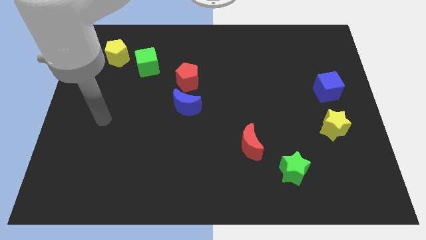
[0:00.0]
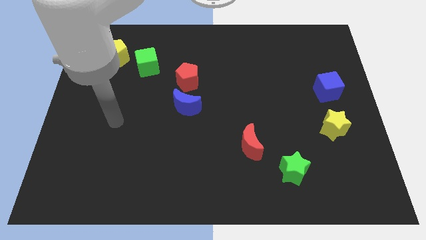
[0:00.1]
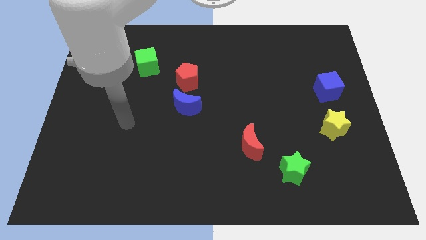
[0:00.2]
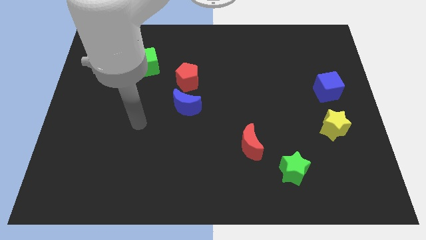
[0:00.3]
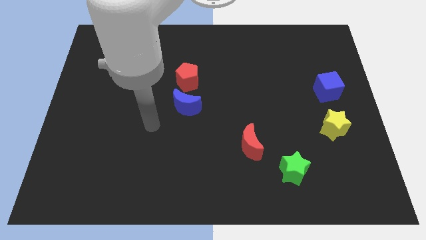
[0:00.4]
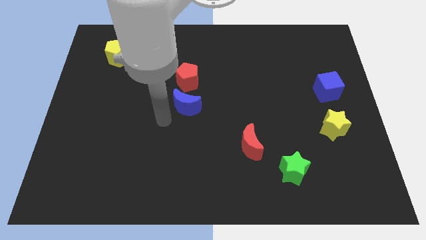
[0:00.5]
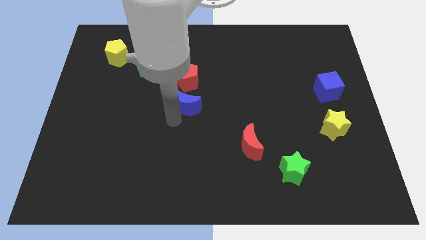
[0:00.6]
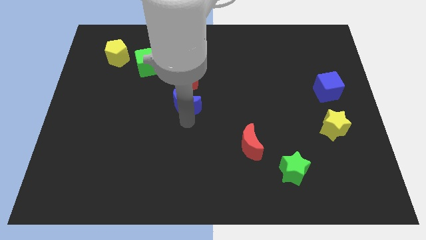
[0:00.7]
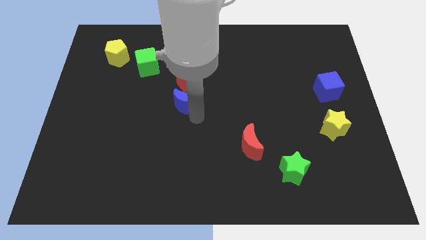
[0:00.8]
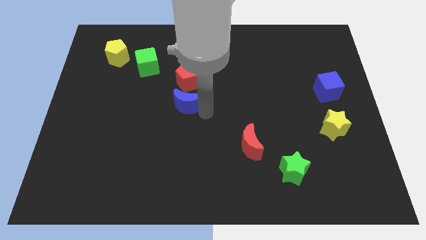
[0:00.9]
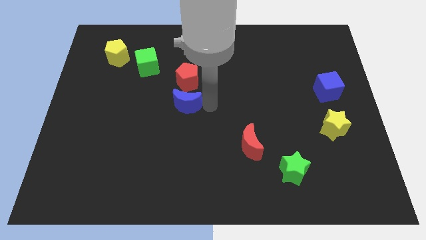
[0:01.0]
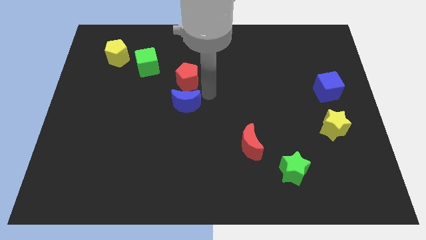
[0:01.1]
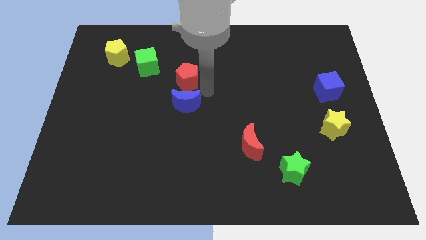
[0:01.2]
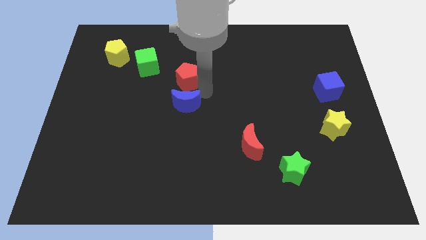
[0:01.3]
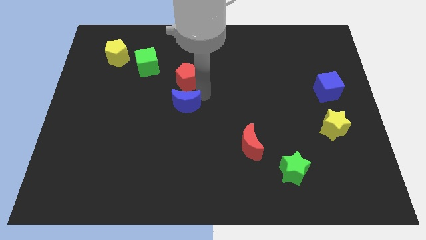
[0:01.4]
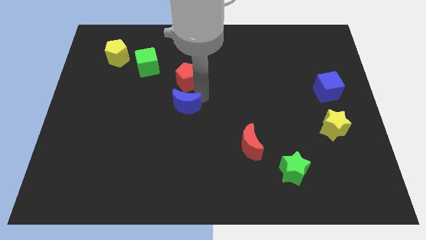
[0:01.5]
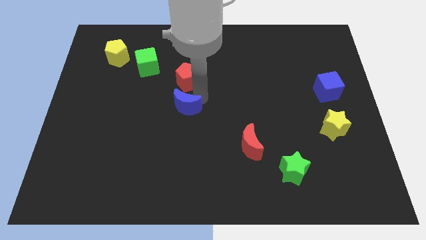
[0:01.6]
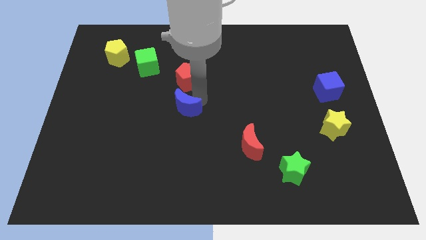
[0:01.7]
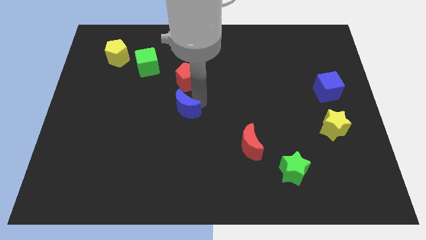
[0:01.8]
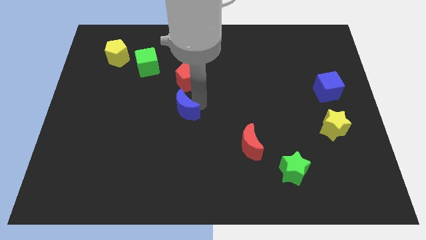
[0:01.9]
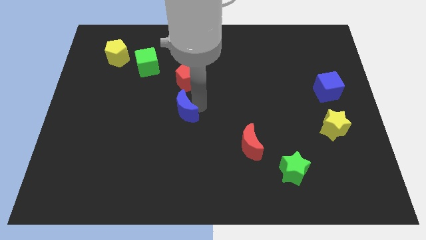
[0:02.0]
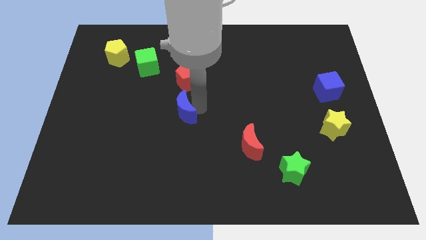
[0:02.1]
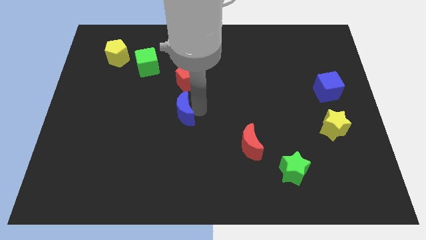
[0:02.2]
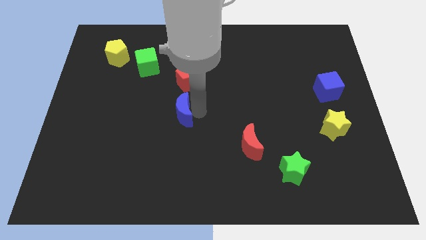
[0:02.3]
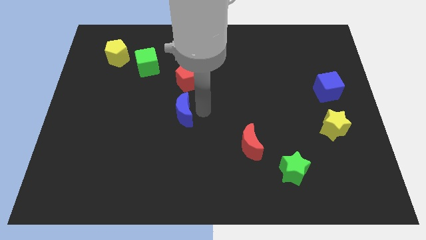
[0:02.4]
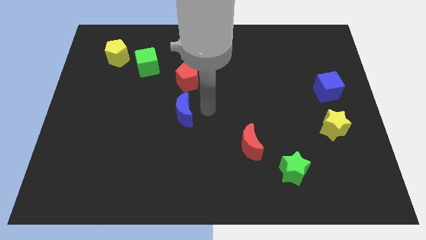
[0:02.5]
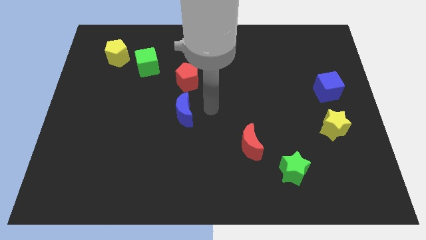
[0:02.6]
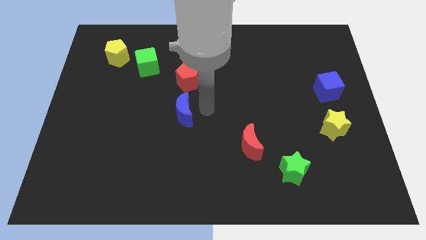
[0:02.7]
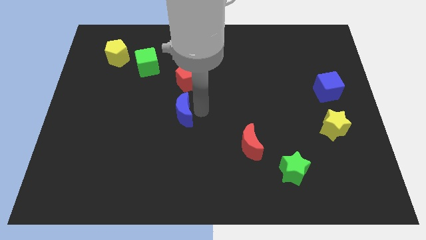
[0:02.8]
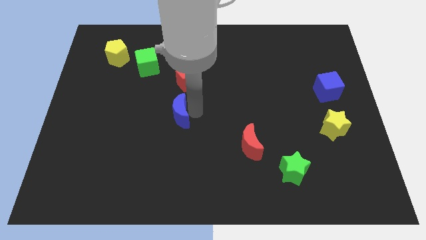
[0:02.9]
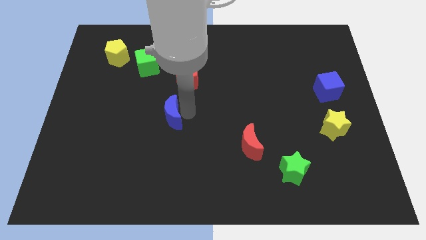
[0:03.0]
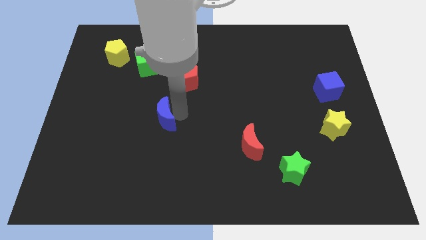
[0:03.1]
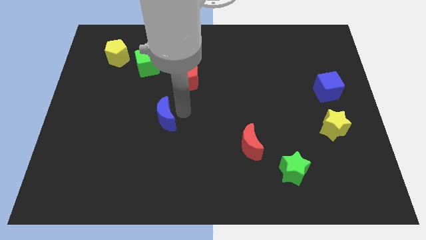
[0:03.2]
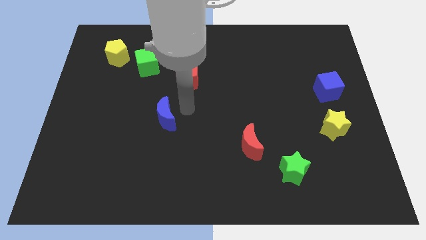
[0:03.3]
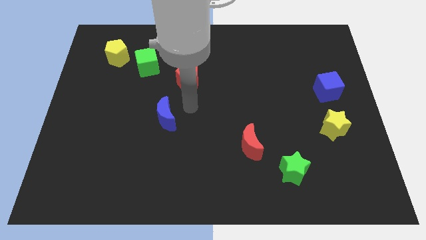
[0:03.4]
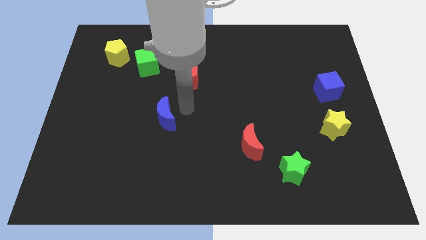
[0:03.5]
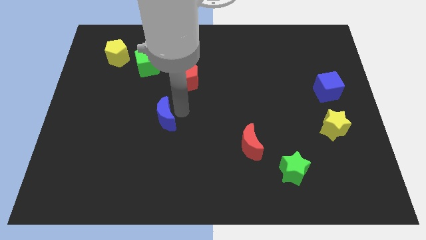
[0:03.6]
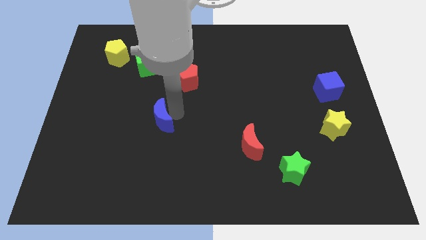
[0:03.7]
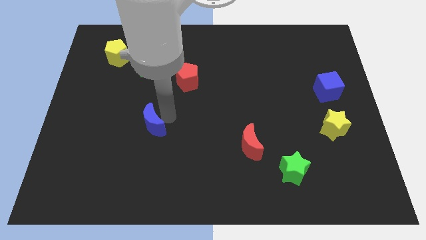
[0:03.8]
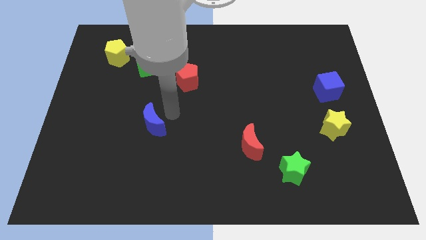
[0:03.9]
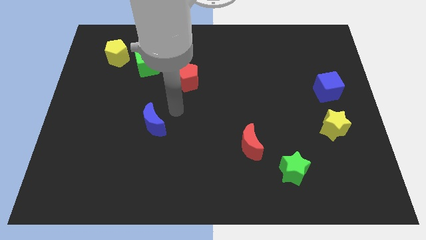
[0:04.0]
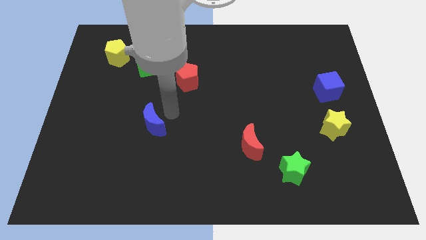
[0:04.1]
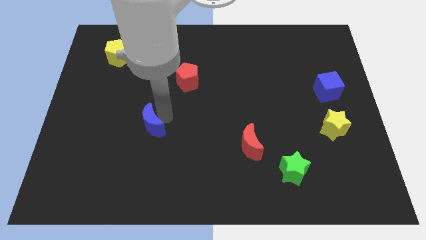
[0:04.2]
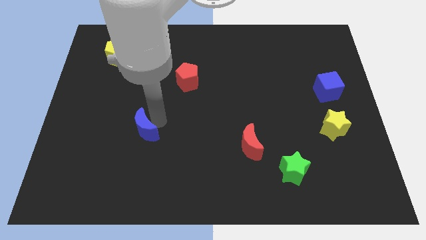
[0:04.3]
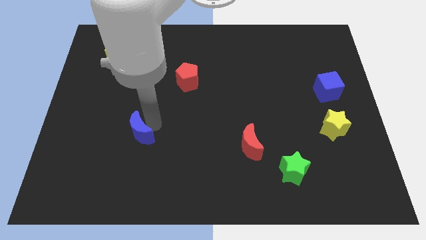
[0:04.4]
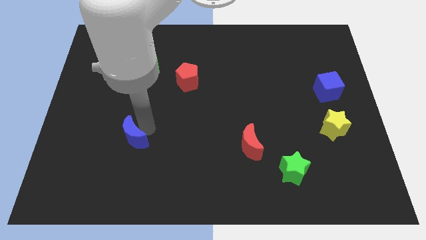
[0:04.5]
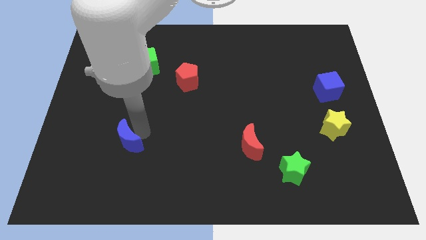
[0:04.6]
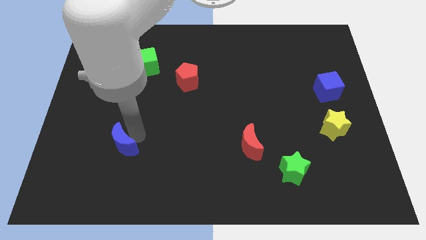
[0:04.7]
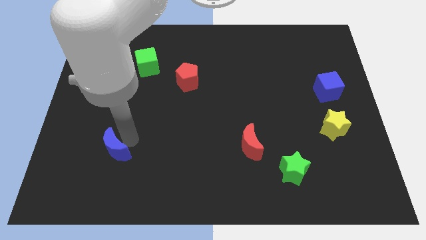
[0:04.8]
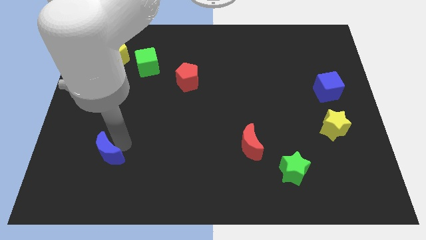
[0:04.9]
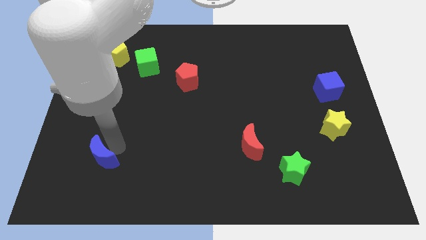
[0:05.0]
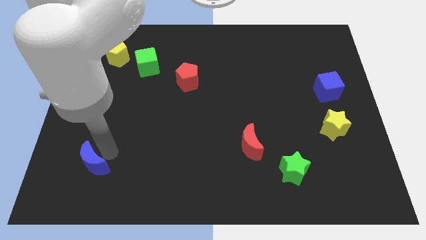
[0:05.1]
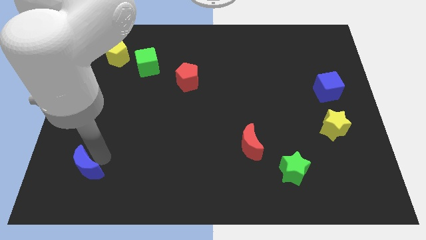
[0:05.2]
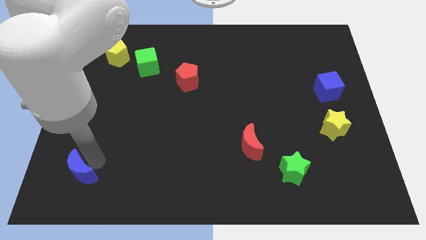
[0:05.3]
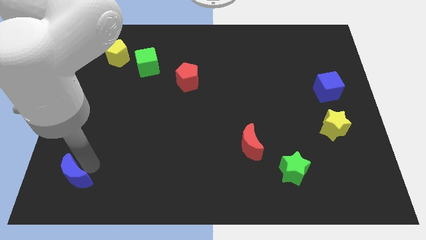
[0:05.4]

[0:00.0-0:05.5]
put the blue moon to the bottom left
